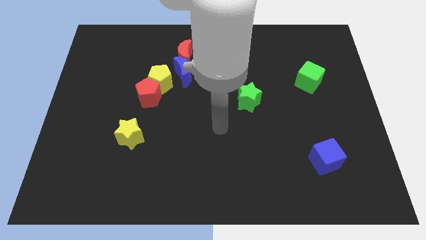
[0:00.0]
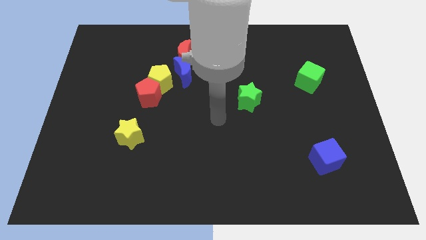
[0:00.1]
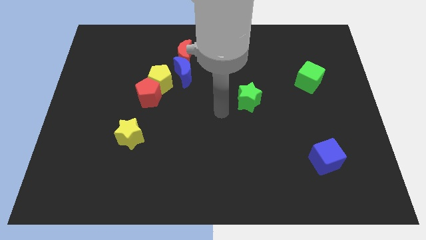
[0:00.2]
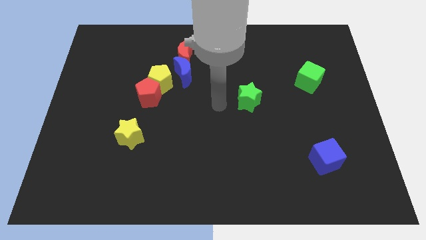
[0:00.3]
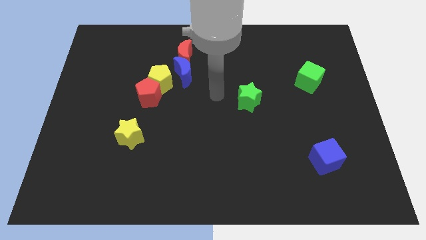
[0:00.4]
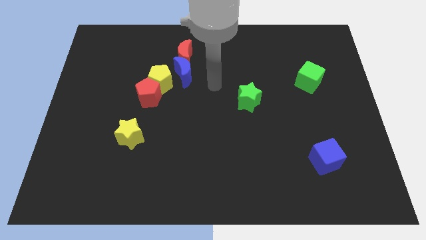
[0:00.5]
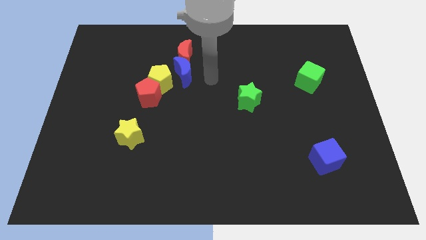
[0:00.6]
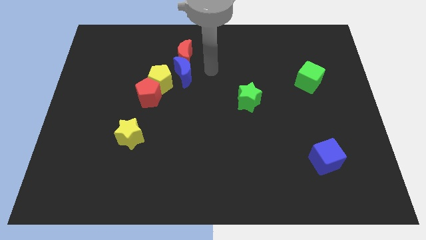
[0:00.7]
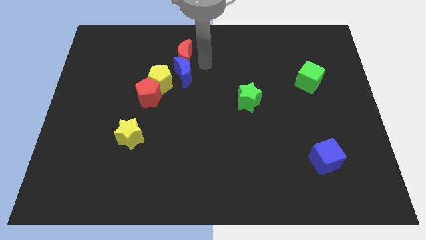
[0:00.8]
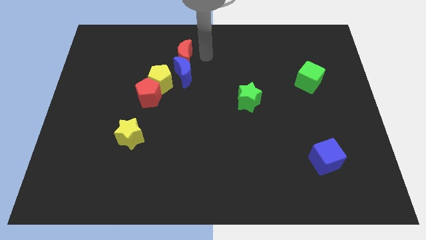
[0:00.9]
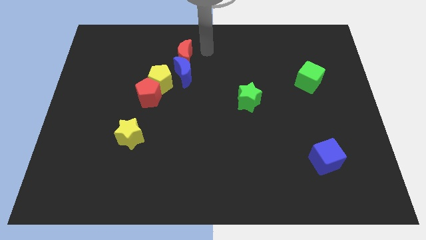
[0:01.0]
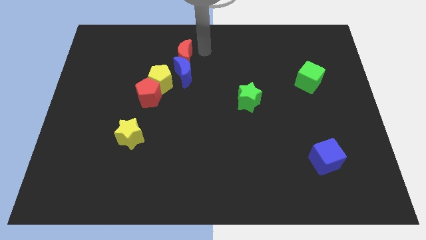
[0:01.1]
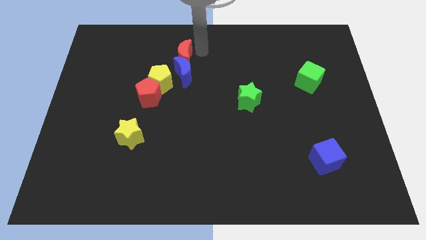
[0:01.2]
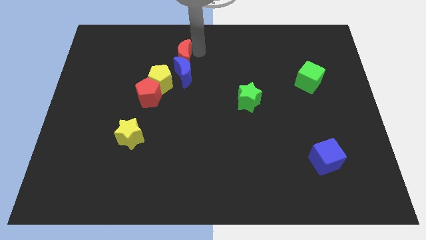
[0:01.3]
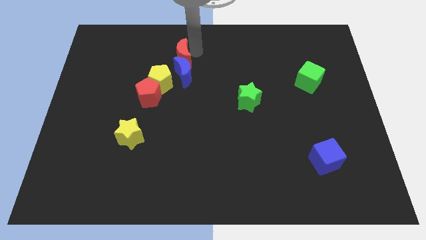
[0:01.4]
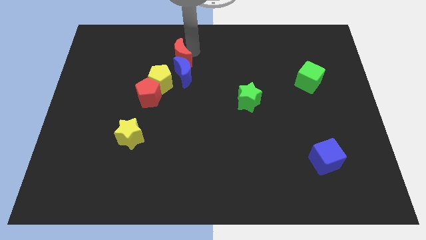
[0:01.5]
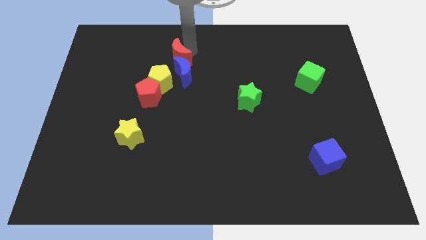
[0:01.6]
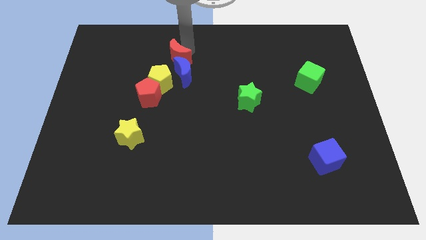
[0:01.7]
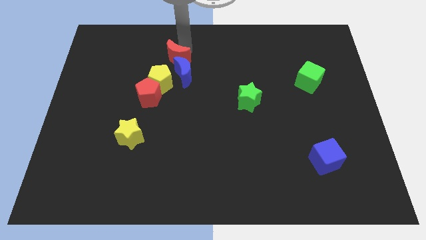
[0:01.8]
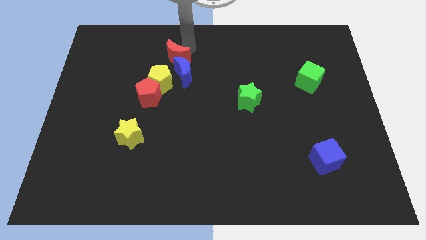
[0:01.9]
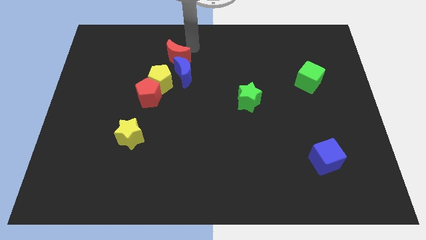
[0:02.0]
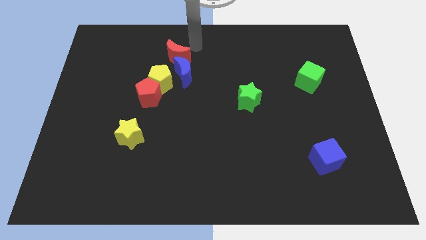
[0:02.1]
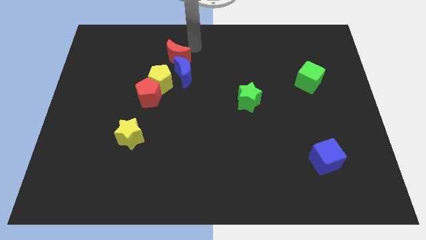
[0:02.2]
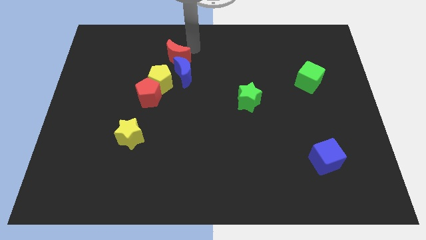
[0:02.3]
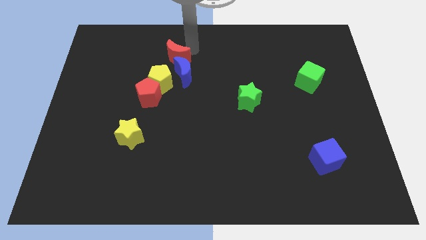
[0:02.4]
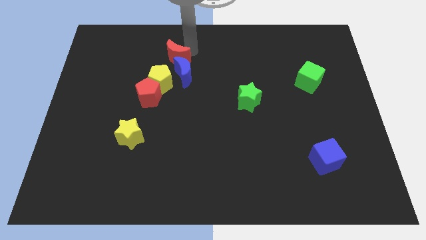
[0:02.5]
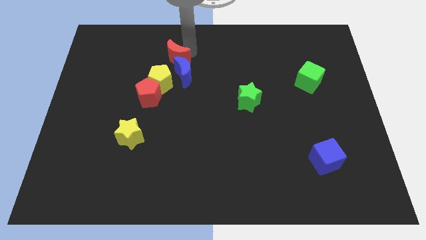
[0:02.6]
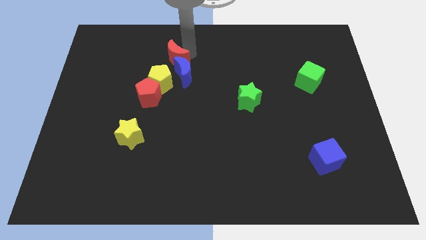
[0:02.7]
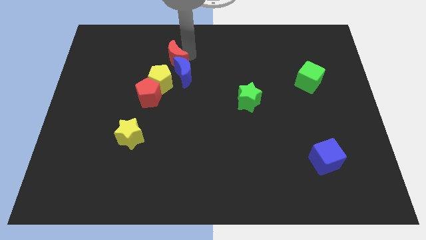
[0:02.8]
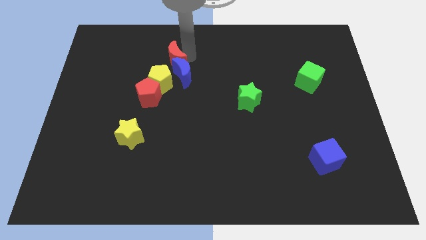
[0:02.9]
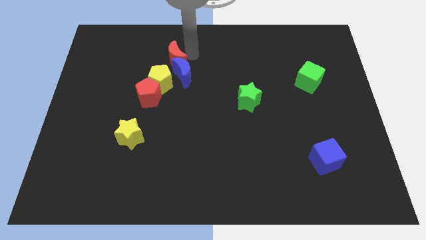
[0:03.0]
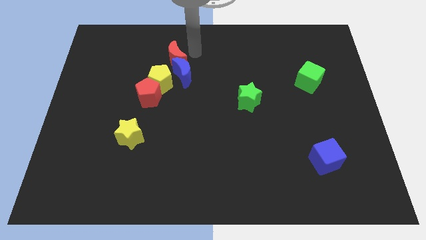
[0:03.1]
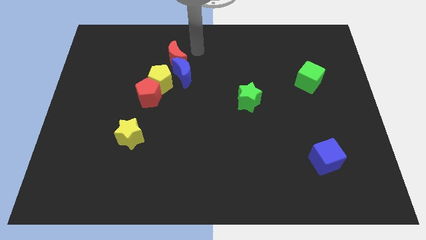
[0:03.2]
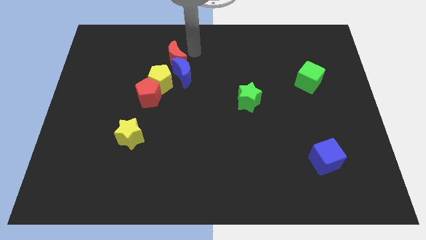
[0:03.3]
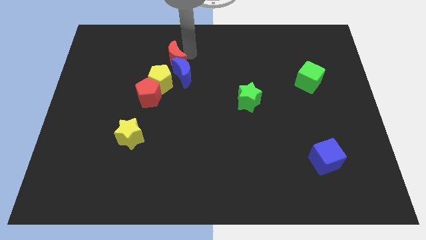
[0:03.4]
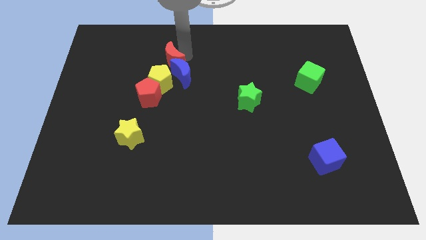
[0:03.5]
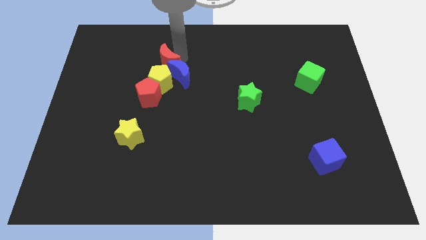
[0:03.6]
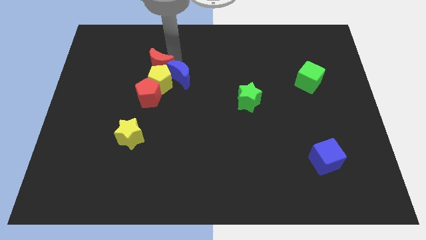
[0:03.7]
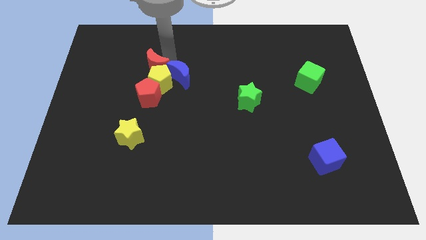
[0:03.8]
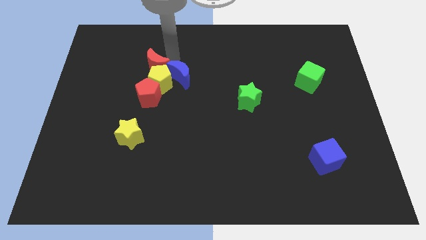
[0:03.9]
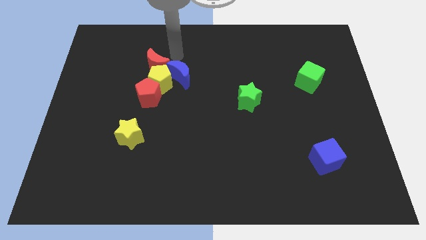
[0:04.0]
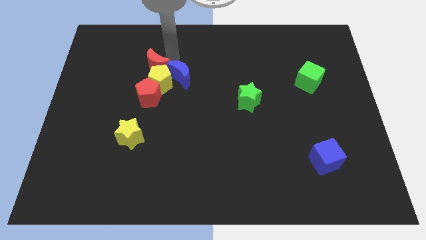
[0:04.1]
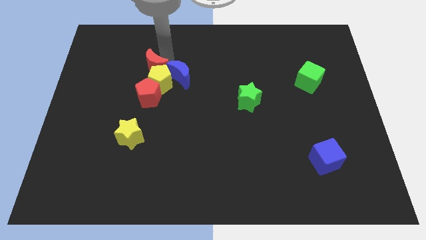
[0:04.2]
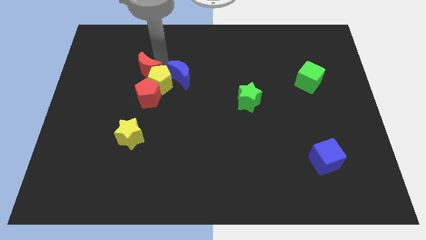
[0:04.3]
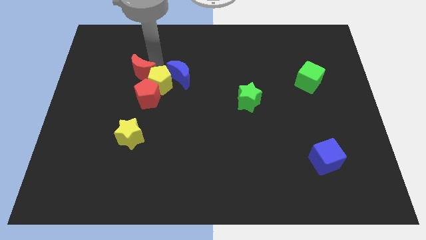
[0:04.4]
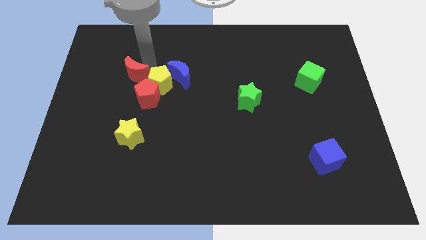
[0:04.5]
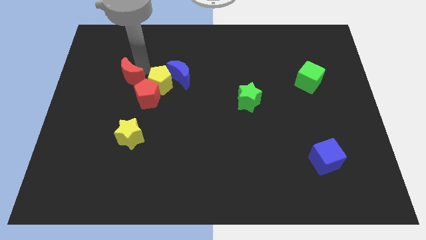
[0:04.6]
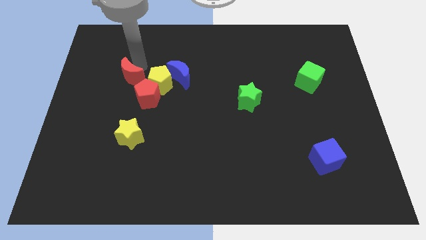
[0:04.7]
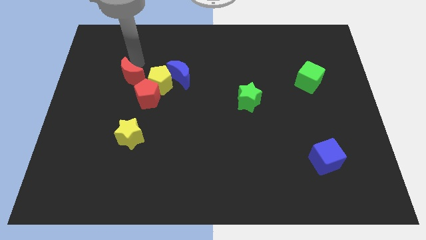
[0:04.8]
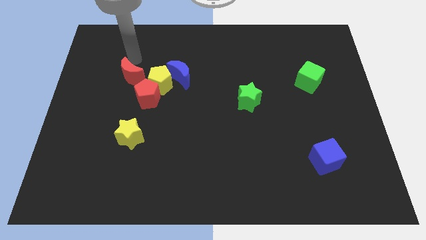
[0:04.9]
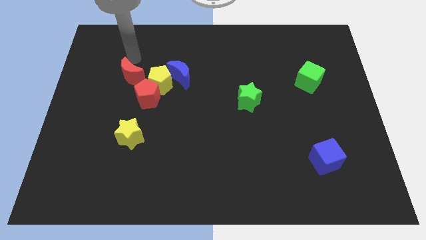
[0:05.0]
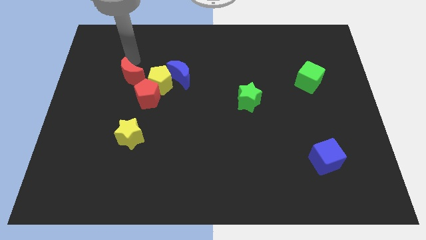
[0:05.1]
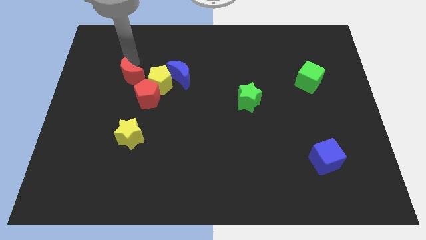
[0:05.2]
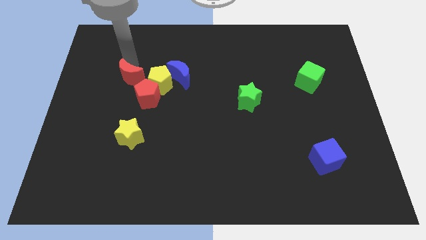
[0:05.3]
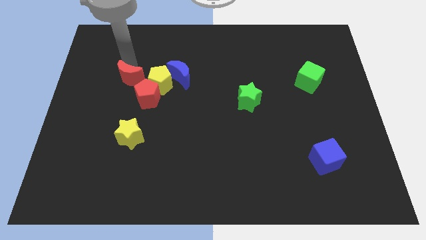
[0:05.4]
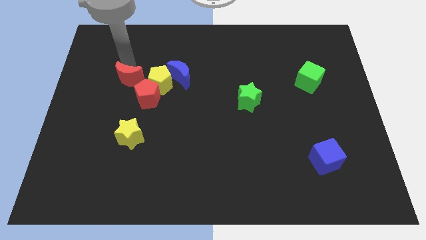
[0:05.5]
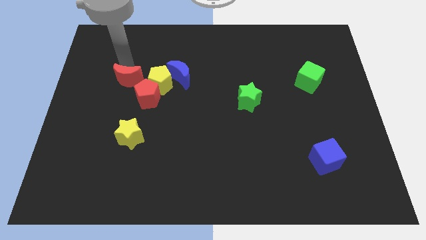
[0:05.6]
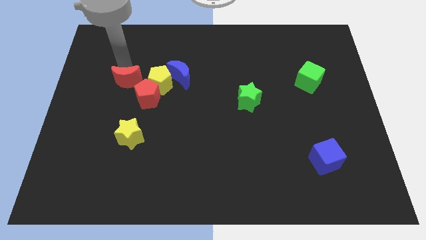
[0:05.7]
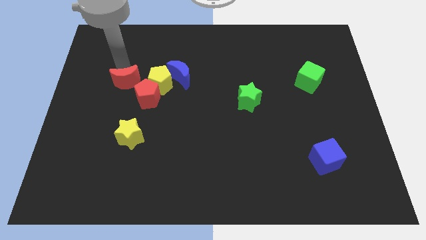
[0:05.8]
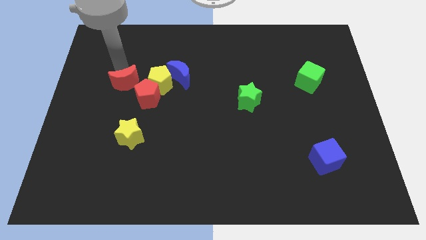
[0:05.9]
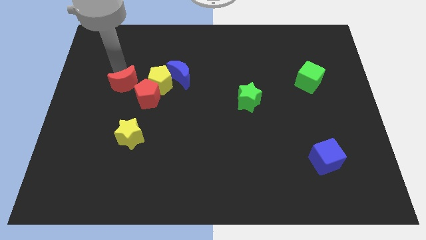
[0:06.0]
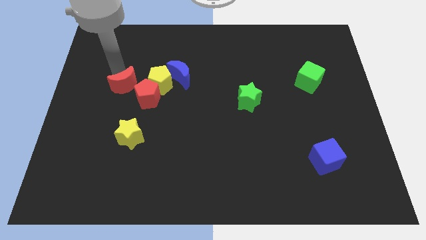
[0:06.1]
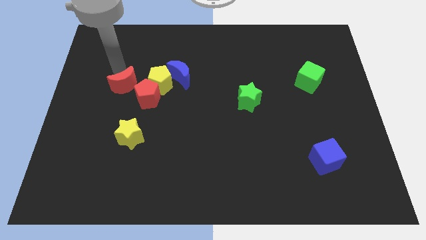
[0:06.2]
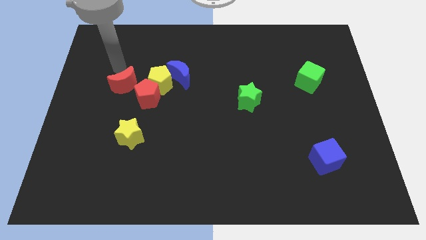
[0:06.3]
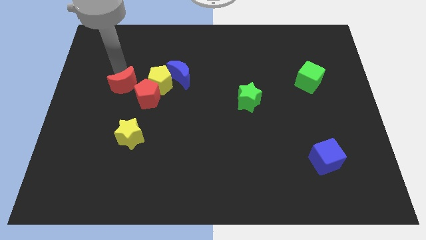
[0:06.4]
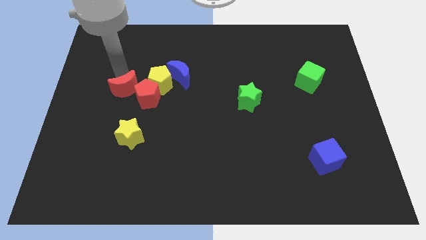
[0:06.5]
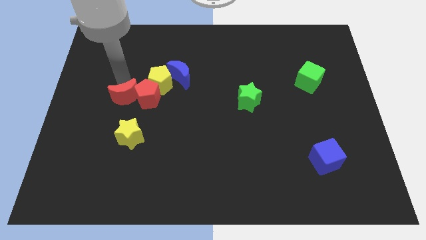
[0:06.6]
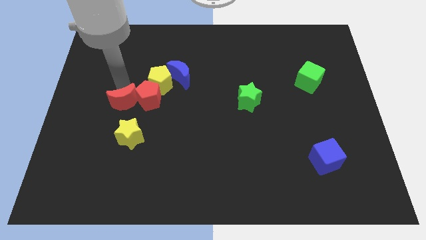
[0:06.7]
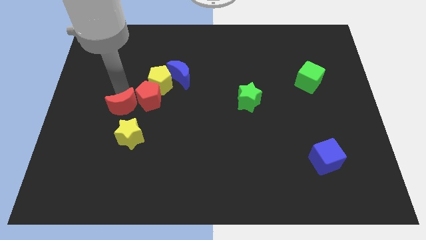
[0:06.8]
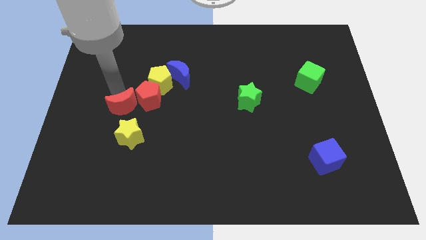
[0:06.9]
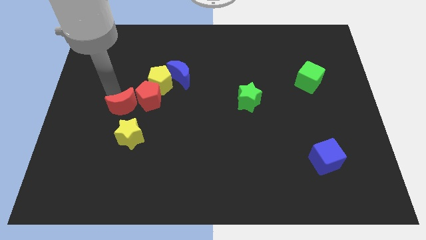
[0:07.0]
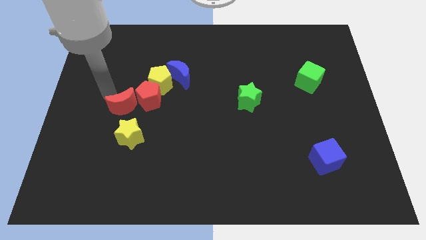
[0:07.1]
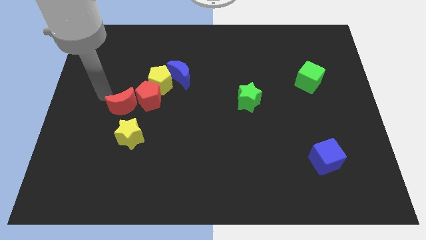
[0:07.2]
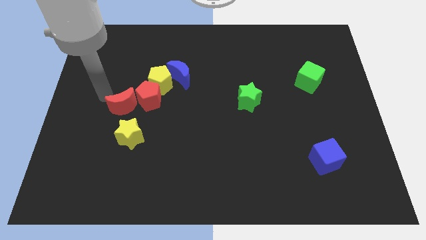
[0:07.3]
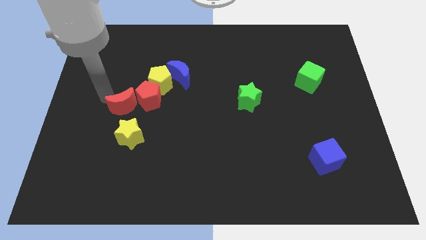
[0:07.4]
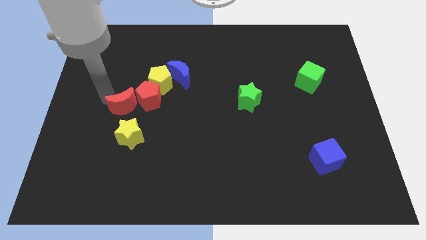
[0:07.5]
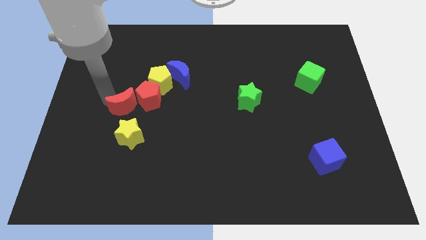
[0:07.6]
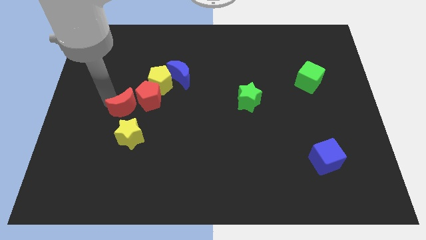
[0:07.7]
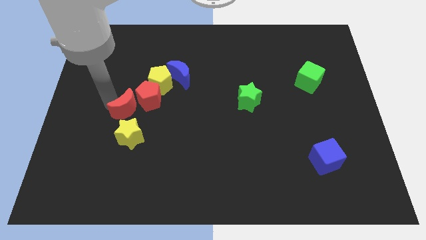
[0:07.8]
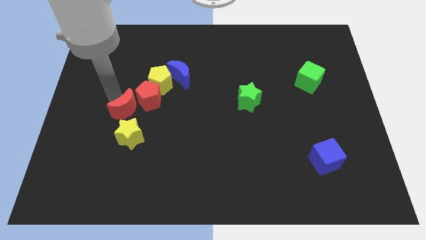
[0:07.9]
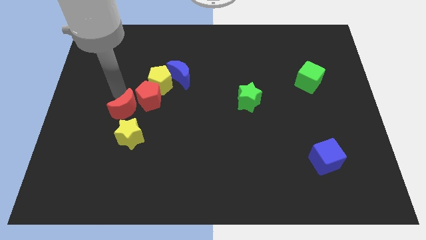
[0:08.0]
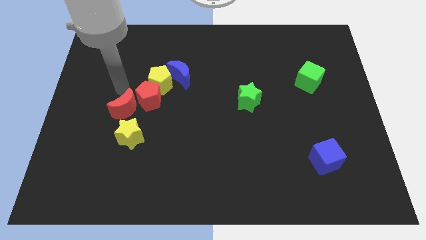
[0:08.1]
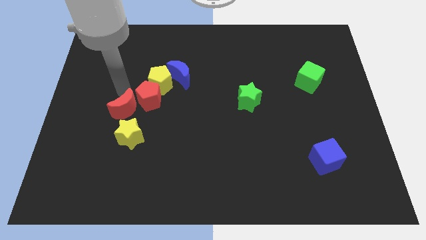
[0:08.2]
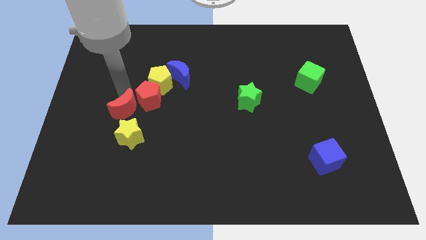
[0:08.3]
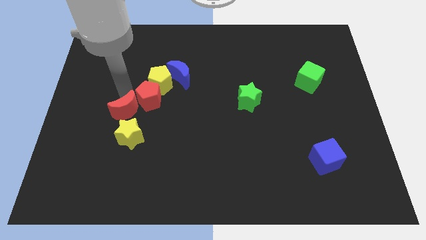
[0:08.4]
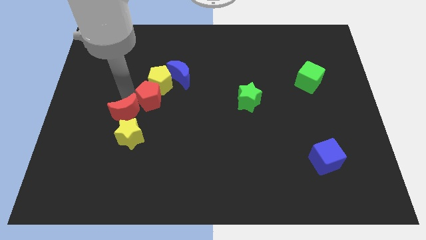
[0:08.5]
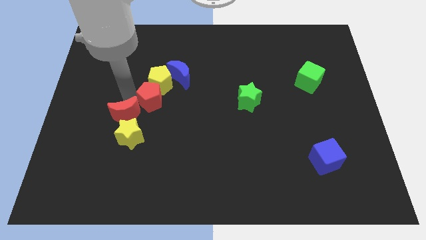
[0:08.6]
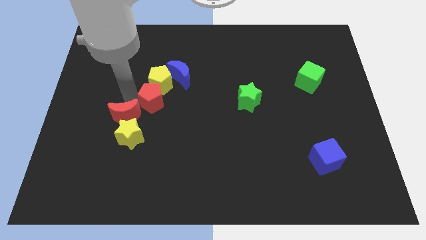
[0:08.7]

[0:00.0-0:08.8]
slide the red moon next to the yellow star
